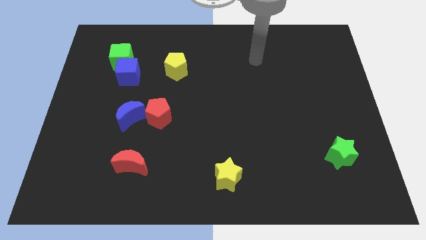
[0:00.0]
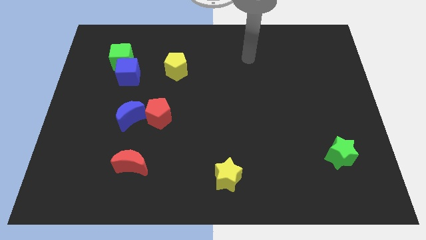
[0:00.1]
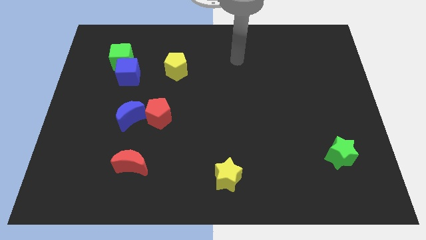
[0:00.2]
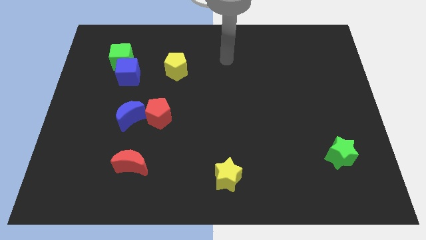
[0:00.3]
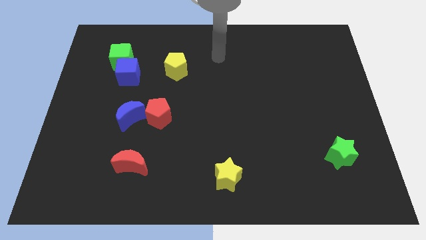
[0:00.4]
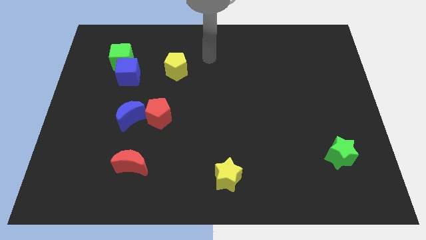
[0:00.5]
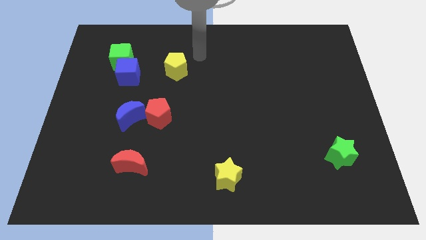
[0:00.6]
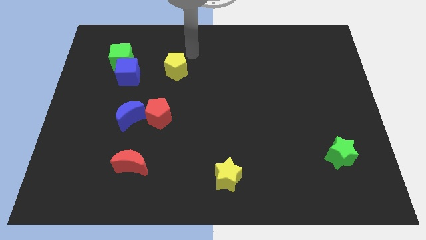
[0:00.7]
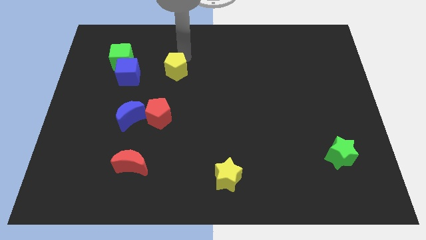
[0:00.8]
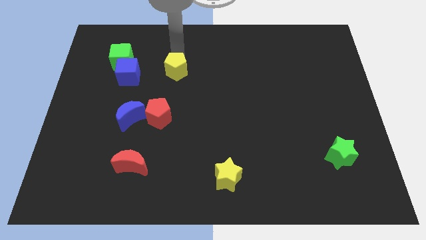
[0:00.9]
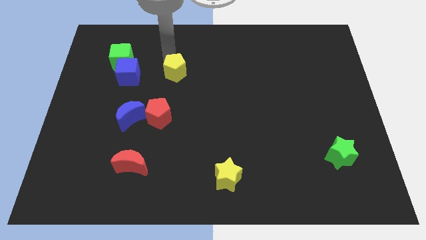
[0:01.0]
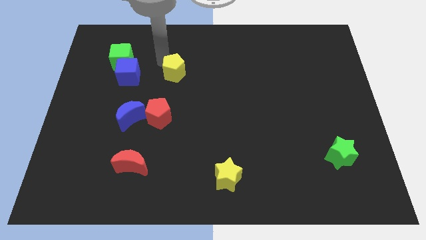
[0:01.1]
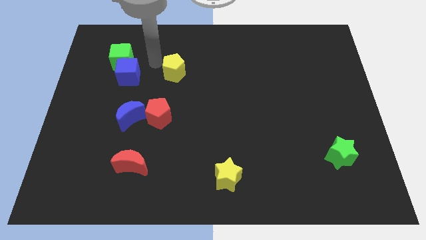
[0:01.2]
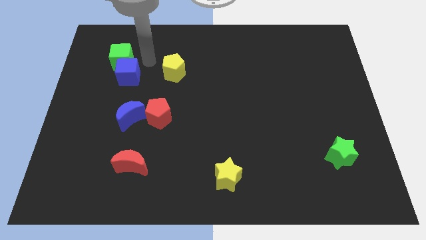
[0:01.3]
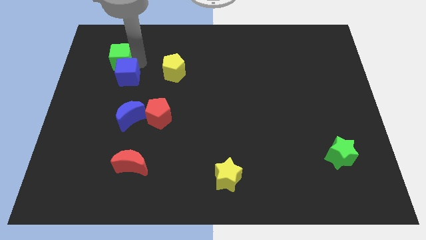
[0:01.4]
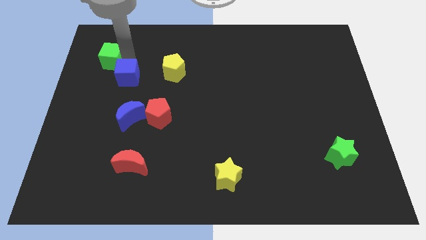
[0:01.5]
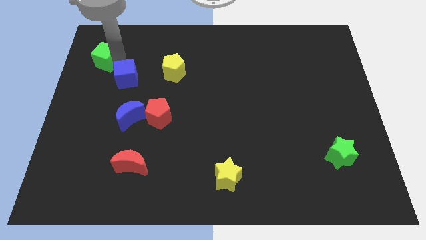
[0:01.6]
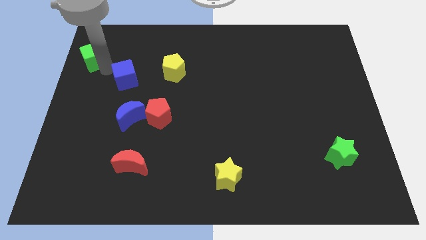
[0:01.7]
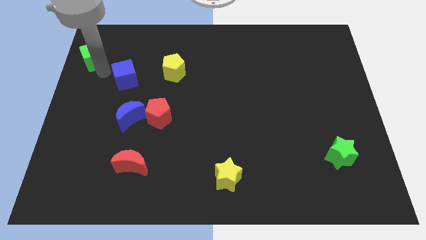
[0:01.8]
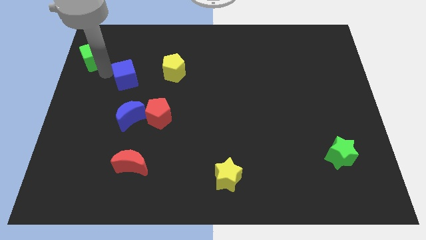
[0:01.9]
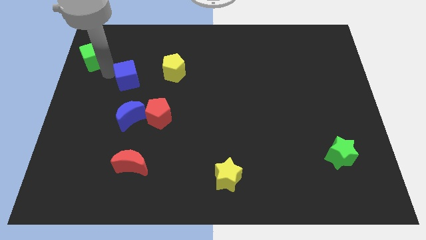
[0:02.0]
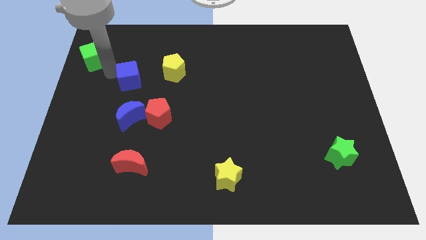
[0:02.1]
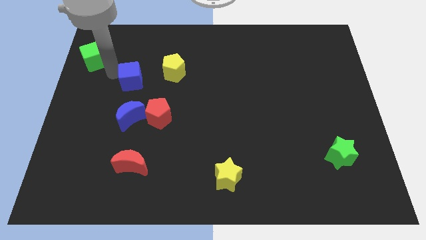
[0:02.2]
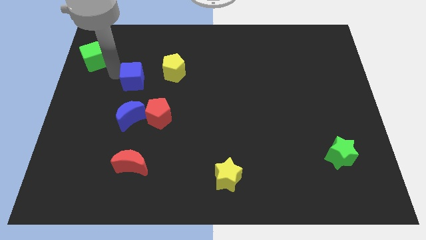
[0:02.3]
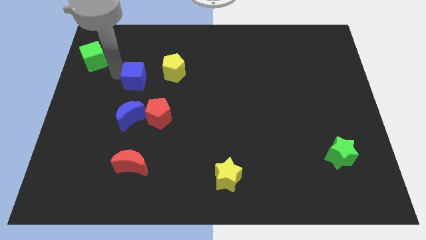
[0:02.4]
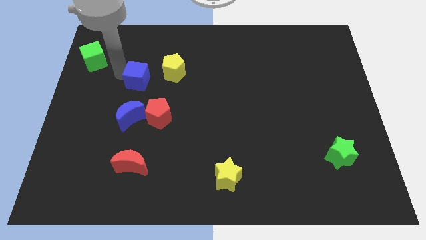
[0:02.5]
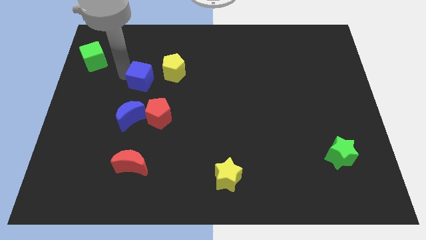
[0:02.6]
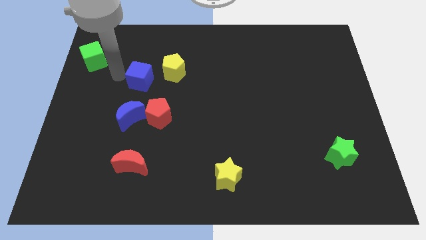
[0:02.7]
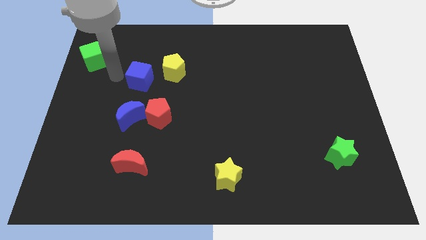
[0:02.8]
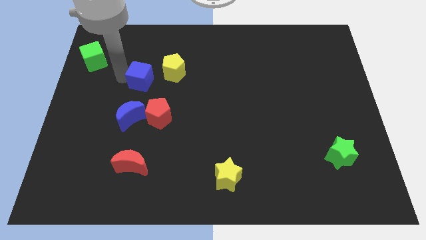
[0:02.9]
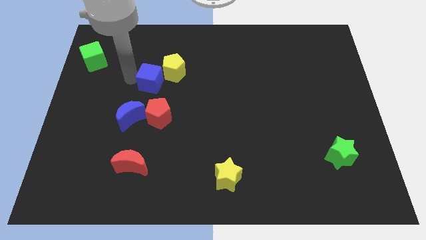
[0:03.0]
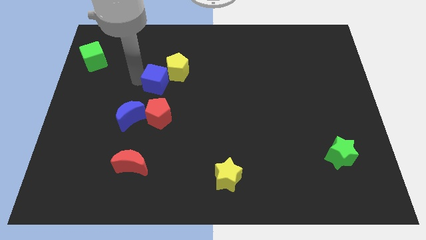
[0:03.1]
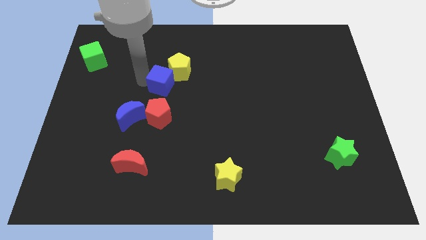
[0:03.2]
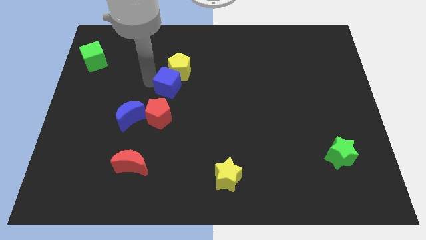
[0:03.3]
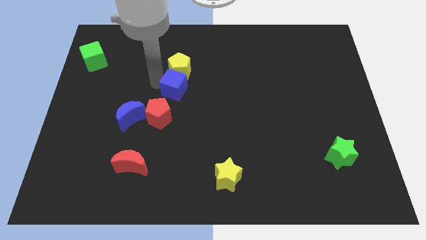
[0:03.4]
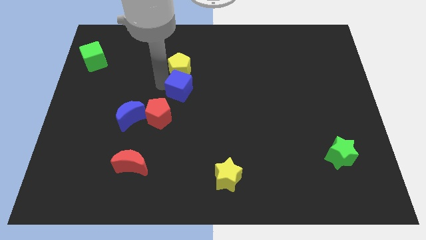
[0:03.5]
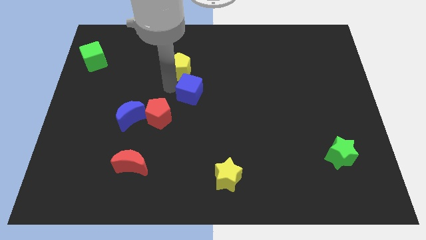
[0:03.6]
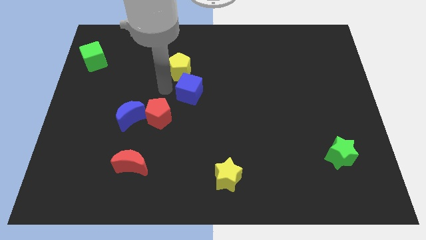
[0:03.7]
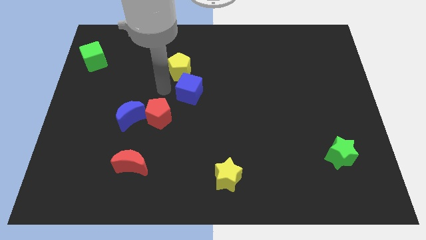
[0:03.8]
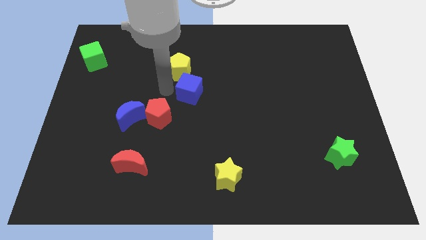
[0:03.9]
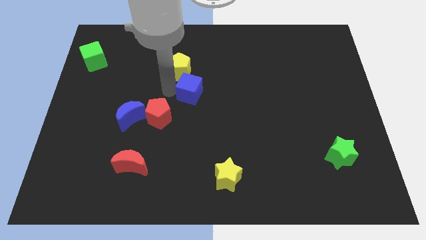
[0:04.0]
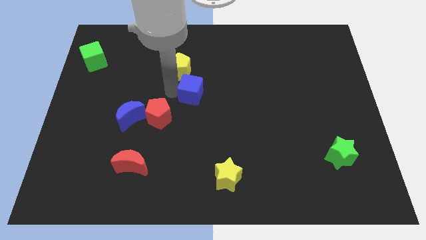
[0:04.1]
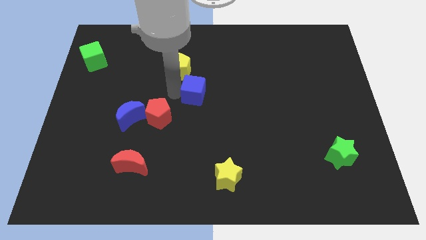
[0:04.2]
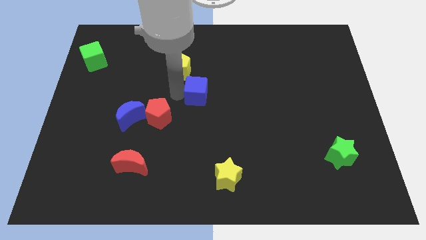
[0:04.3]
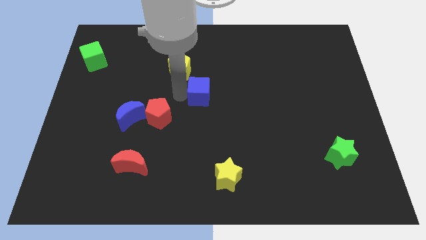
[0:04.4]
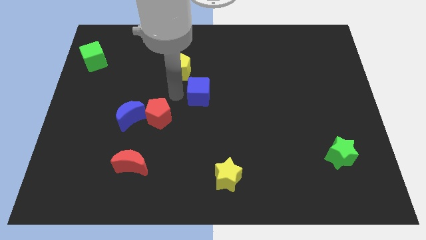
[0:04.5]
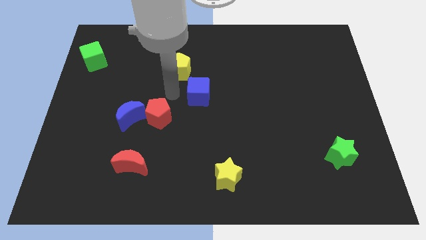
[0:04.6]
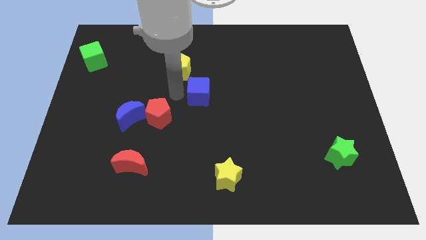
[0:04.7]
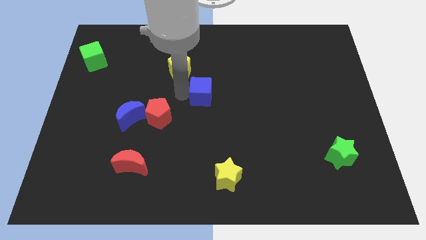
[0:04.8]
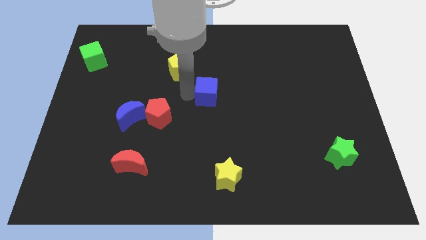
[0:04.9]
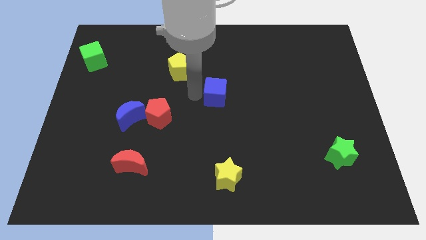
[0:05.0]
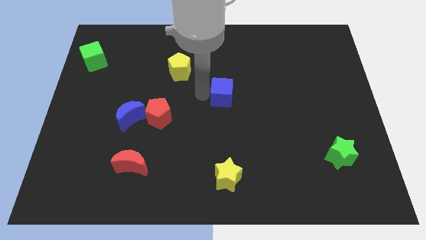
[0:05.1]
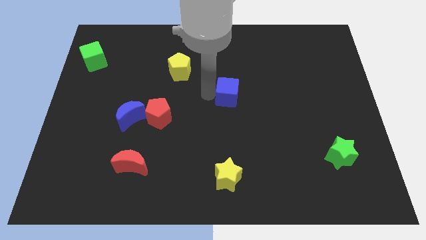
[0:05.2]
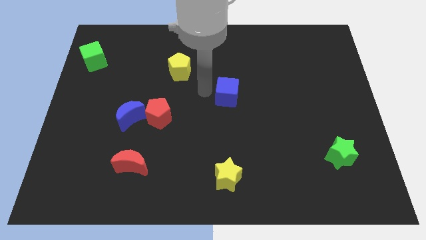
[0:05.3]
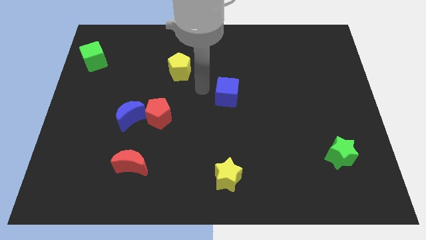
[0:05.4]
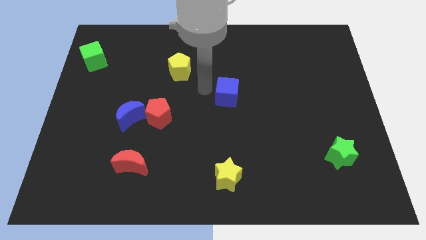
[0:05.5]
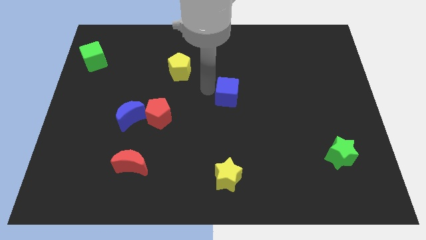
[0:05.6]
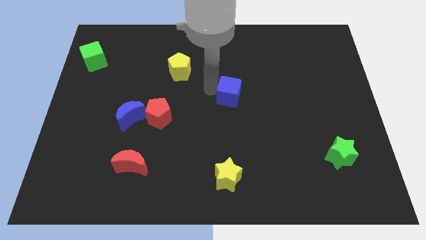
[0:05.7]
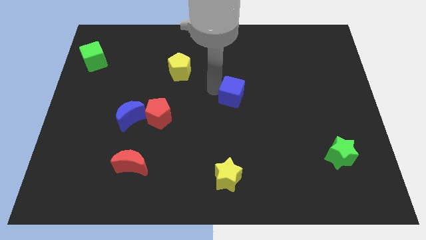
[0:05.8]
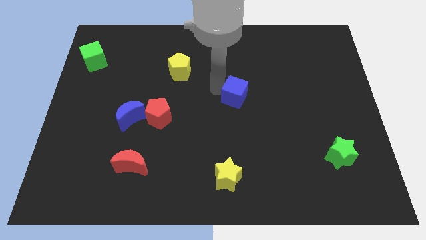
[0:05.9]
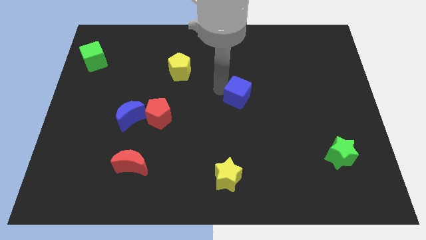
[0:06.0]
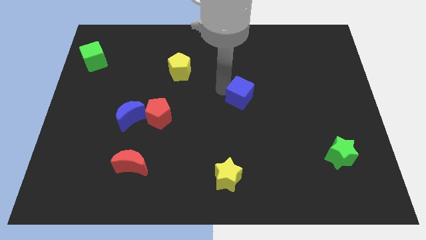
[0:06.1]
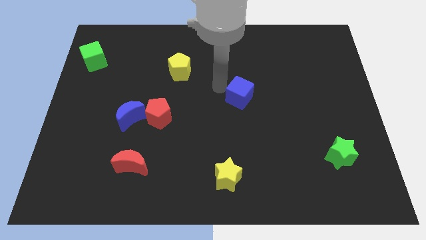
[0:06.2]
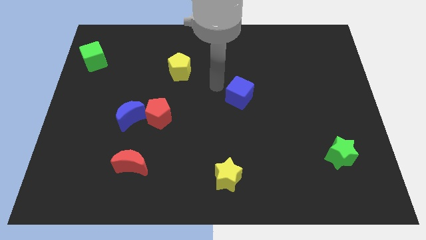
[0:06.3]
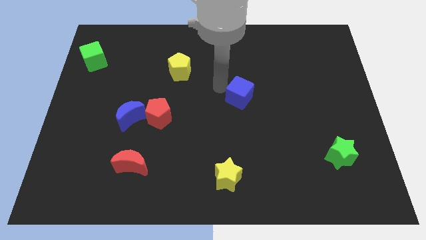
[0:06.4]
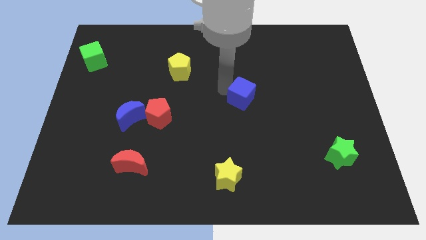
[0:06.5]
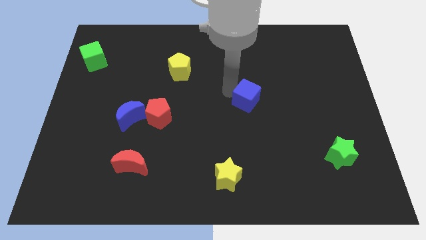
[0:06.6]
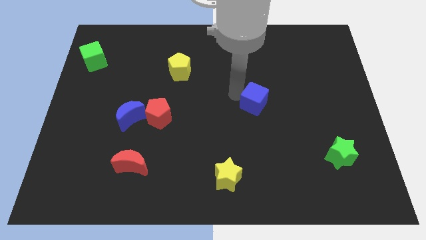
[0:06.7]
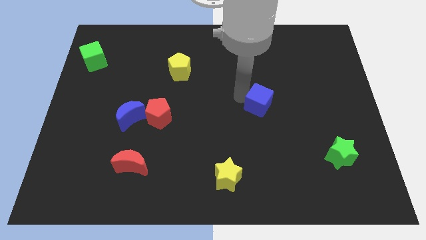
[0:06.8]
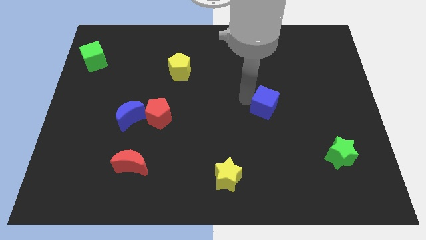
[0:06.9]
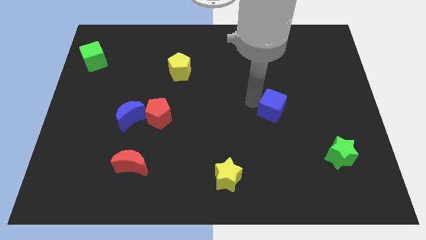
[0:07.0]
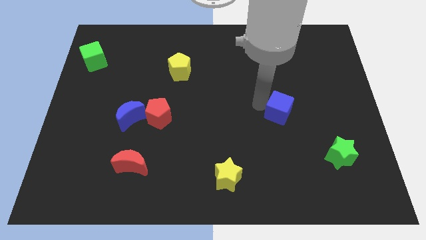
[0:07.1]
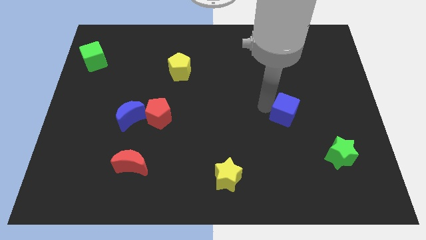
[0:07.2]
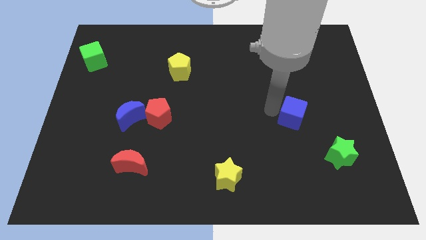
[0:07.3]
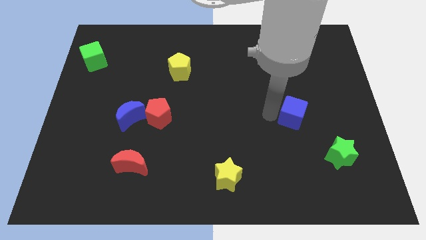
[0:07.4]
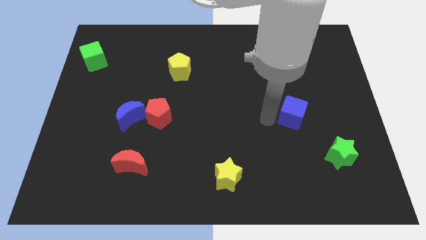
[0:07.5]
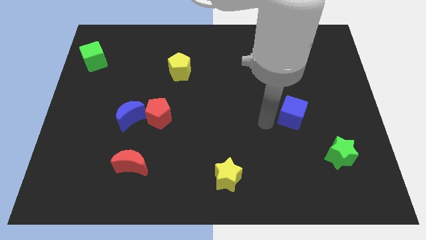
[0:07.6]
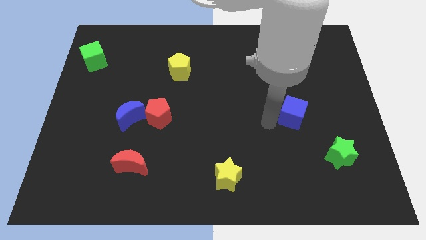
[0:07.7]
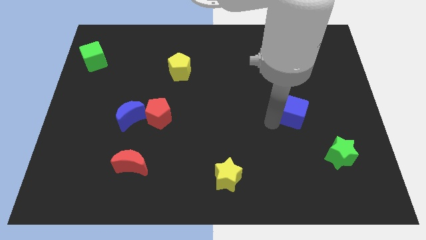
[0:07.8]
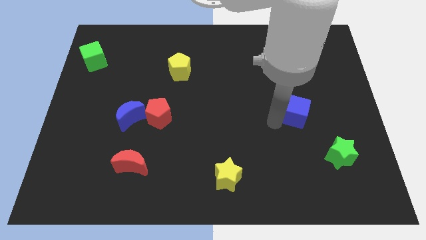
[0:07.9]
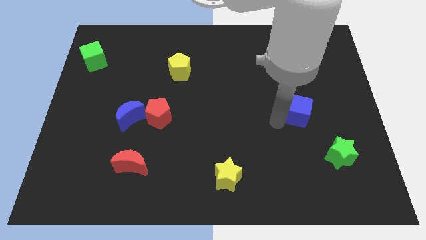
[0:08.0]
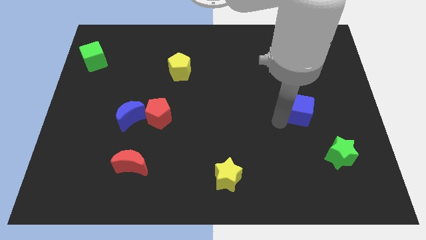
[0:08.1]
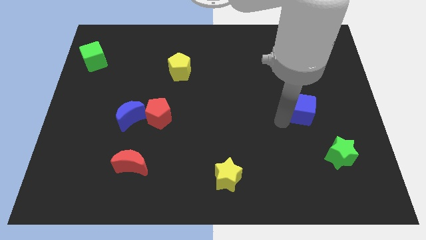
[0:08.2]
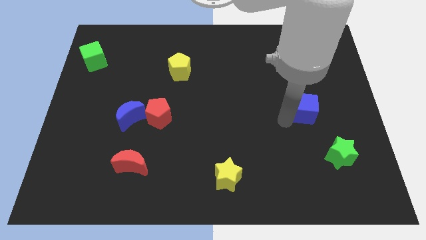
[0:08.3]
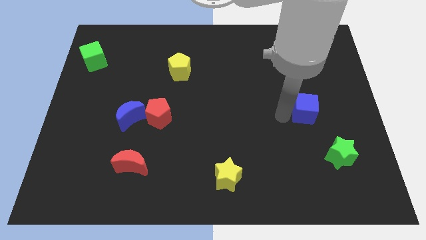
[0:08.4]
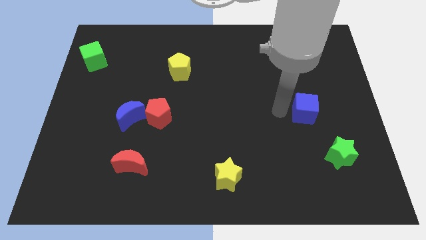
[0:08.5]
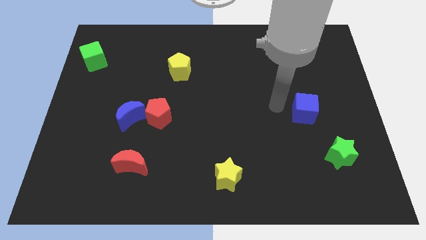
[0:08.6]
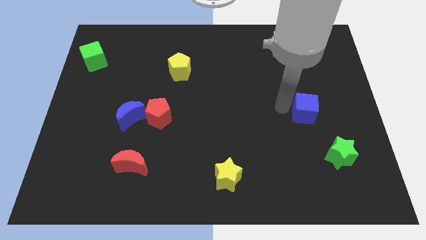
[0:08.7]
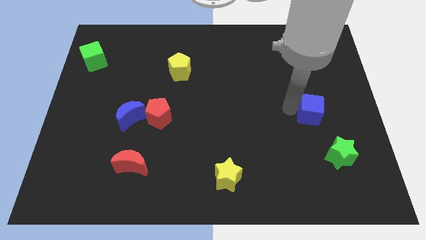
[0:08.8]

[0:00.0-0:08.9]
move the blue cube to the top of the green star
